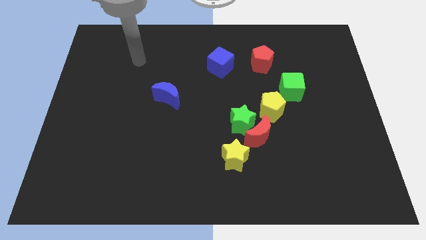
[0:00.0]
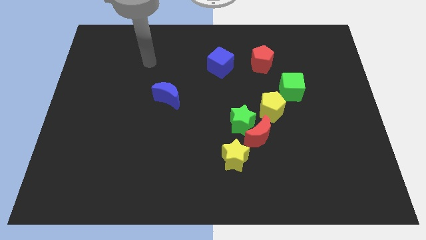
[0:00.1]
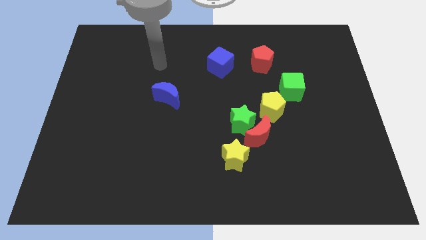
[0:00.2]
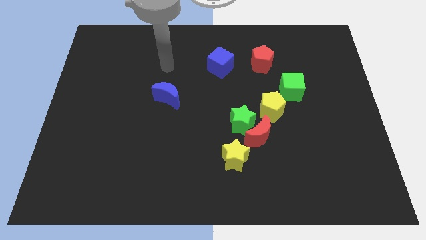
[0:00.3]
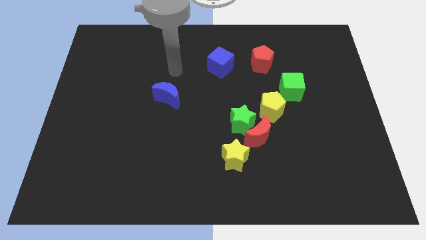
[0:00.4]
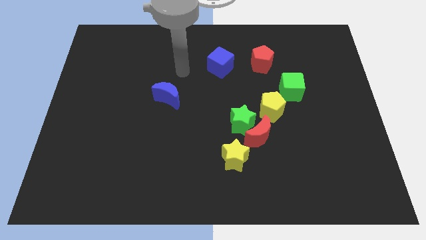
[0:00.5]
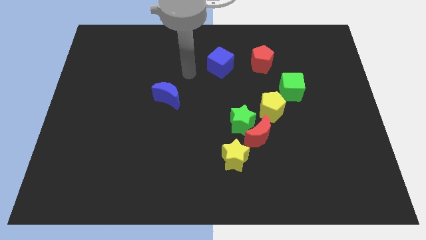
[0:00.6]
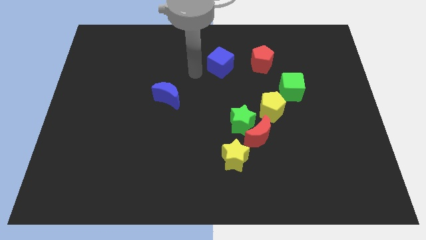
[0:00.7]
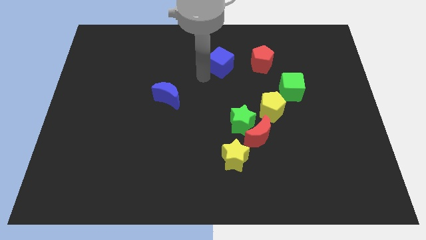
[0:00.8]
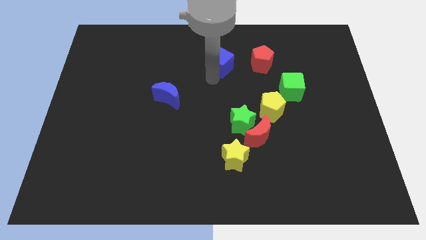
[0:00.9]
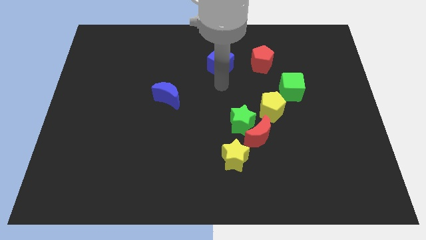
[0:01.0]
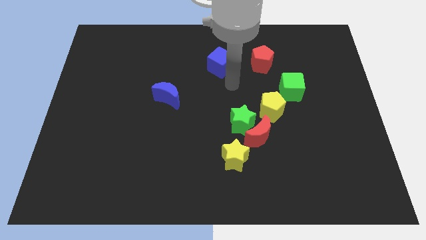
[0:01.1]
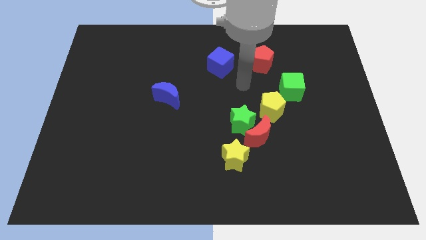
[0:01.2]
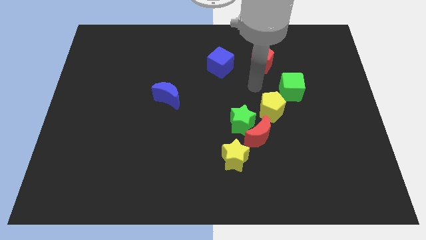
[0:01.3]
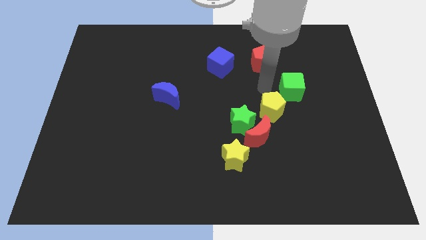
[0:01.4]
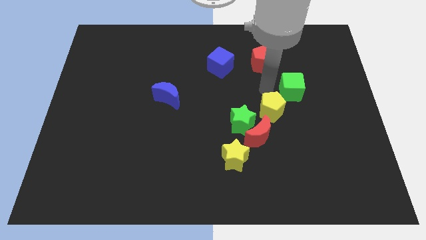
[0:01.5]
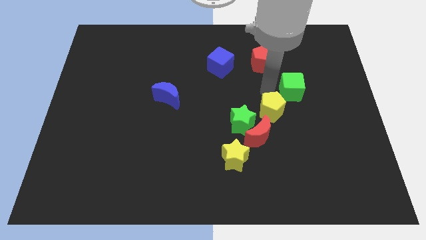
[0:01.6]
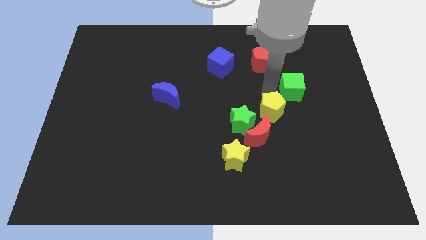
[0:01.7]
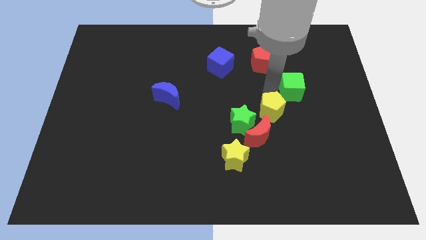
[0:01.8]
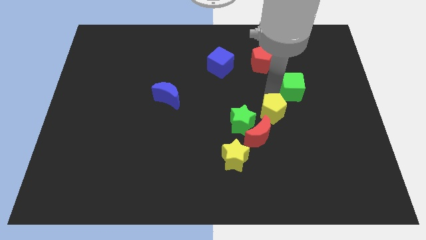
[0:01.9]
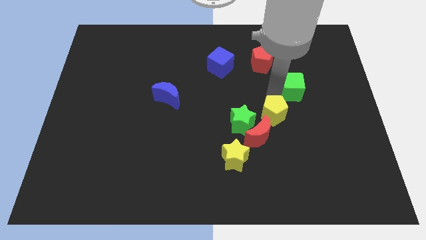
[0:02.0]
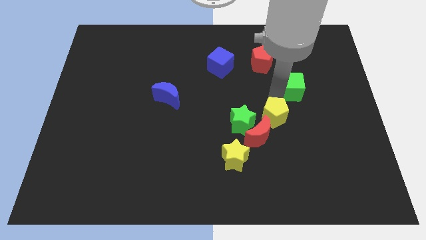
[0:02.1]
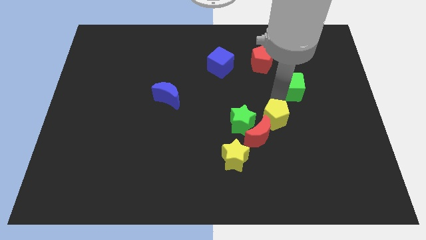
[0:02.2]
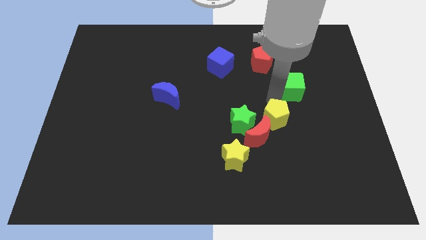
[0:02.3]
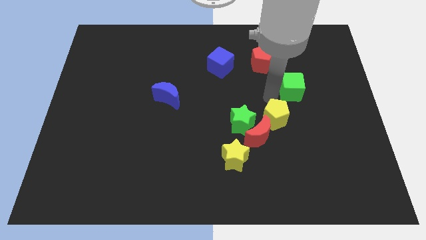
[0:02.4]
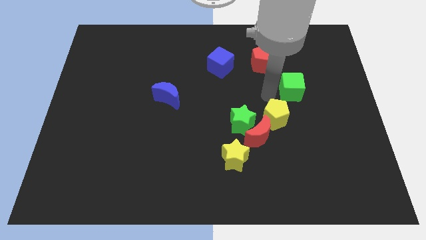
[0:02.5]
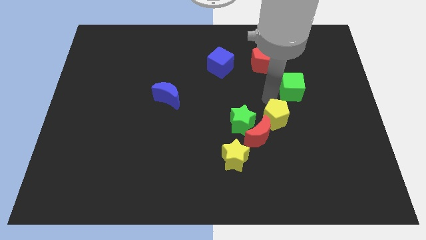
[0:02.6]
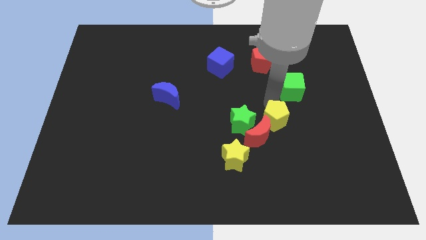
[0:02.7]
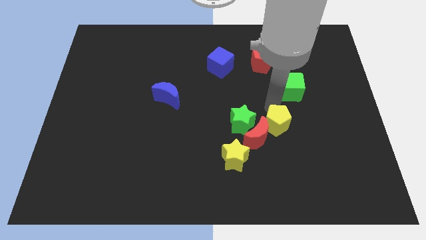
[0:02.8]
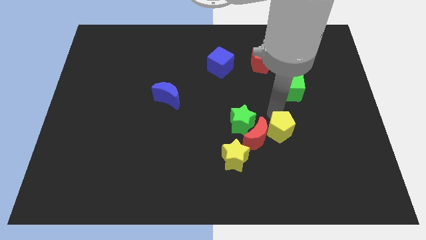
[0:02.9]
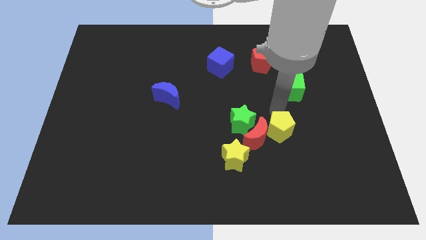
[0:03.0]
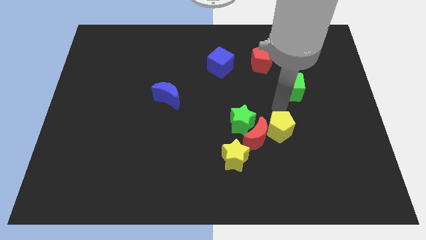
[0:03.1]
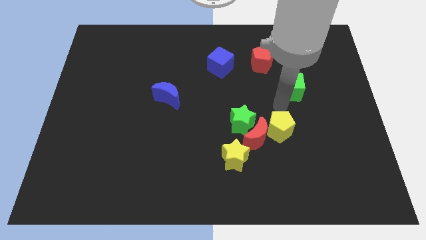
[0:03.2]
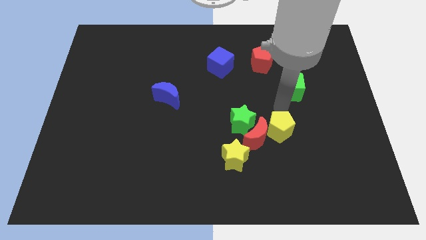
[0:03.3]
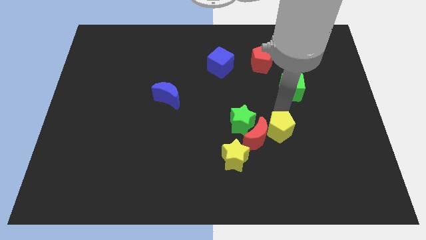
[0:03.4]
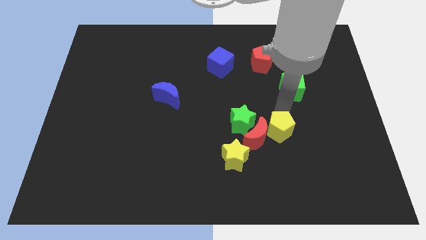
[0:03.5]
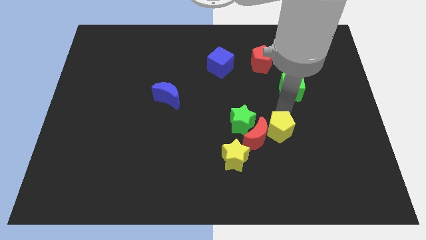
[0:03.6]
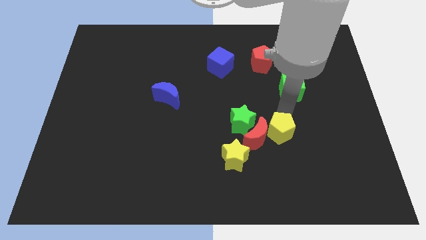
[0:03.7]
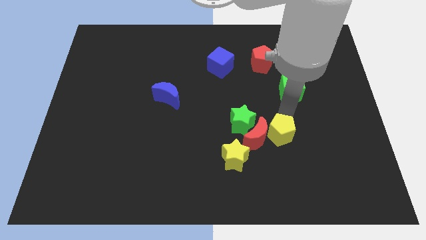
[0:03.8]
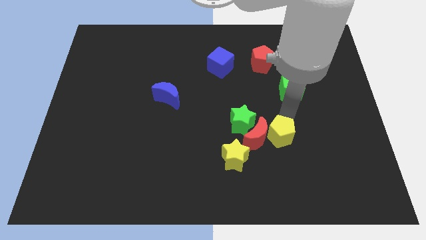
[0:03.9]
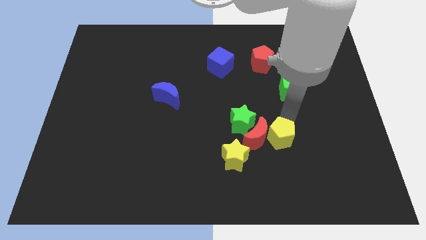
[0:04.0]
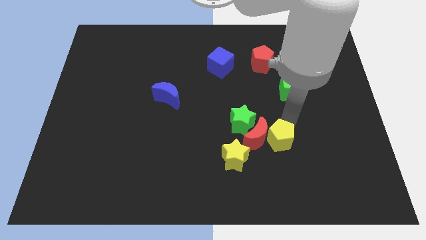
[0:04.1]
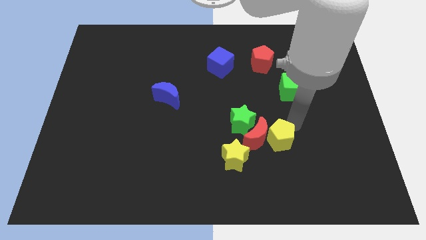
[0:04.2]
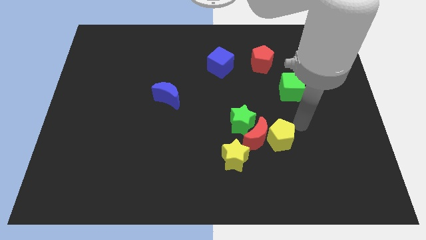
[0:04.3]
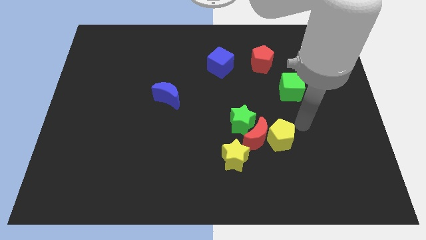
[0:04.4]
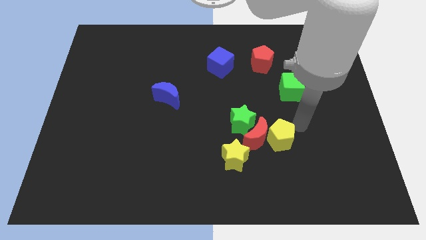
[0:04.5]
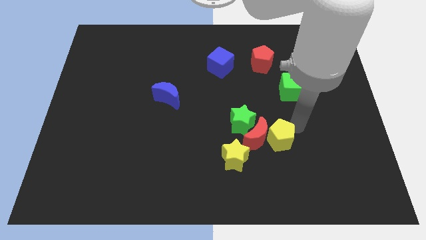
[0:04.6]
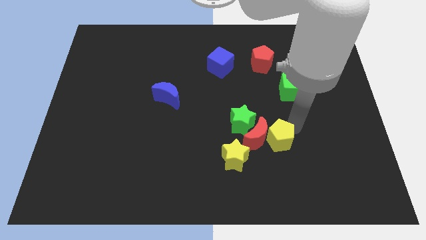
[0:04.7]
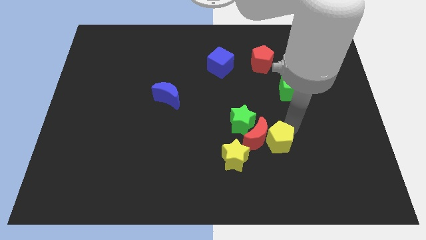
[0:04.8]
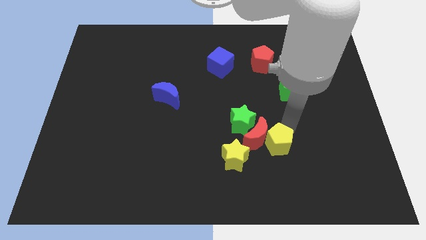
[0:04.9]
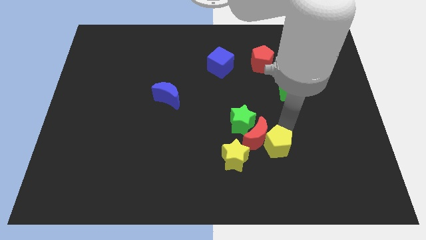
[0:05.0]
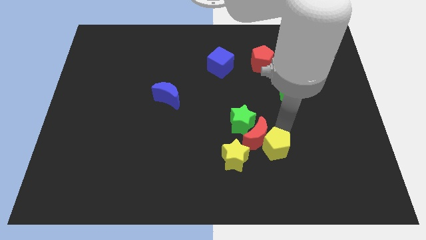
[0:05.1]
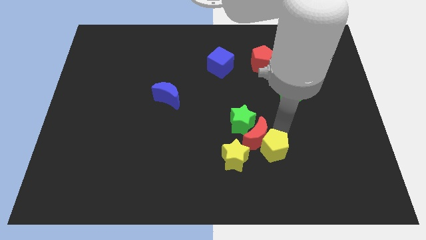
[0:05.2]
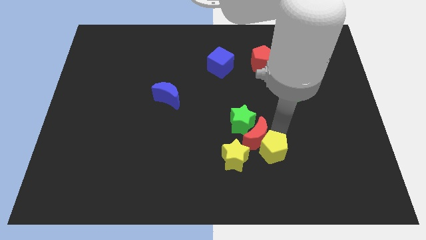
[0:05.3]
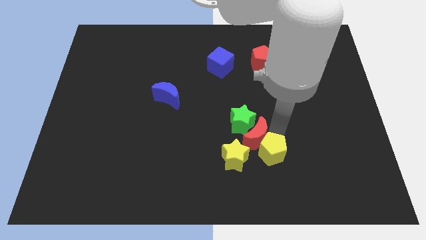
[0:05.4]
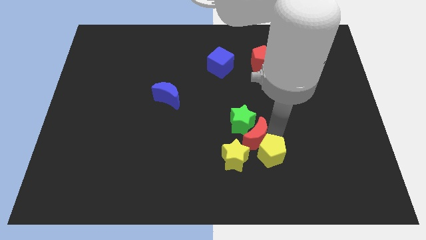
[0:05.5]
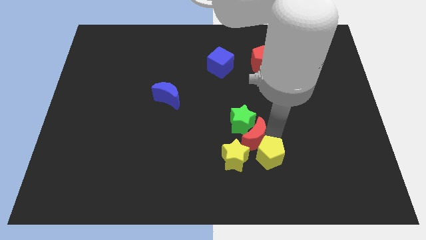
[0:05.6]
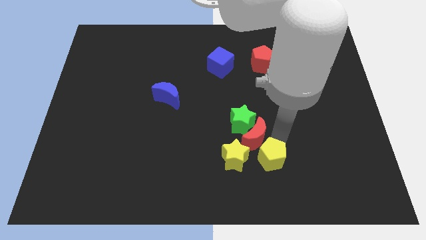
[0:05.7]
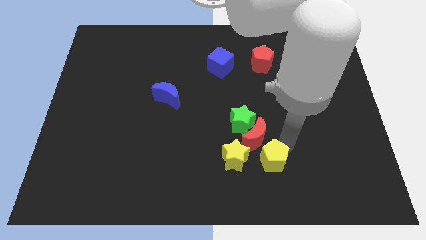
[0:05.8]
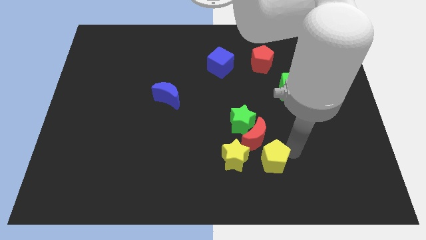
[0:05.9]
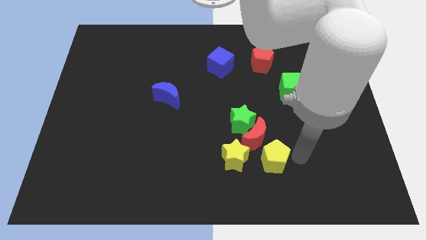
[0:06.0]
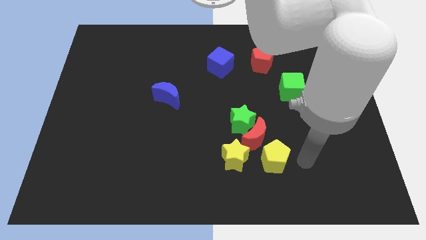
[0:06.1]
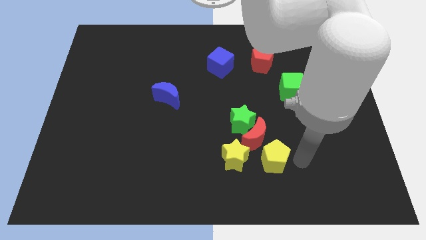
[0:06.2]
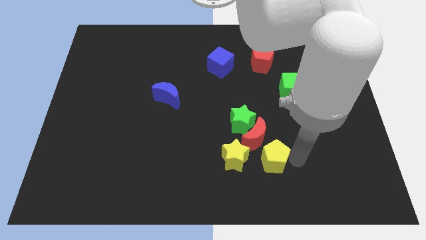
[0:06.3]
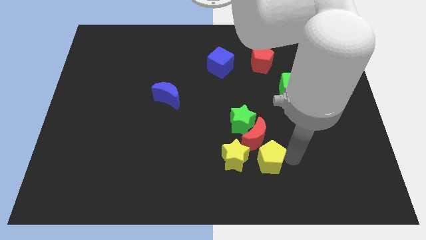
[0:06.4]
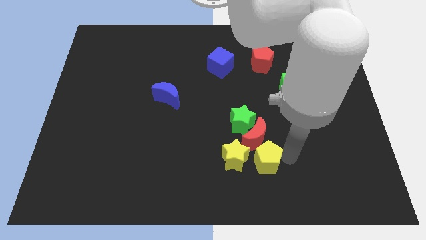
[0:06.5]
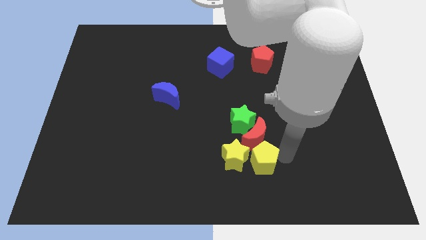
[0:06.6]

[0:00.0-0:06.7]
move the yellow pentagon to the yellow star
